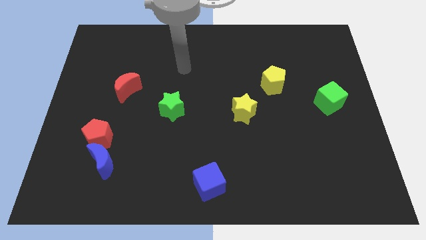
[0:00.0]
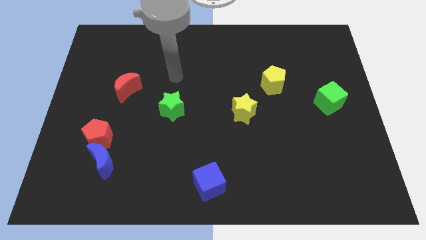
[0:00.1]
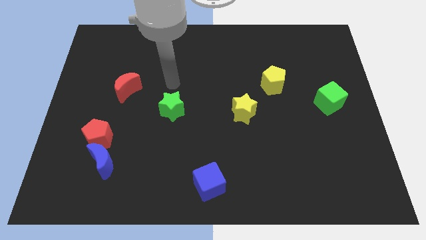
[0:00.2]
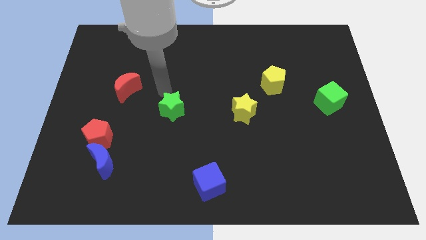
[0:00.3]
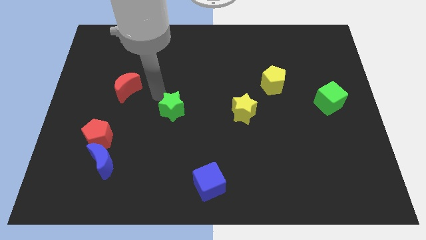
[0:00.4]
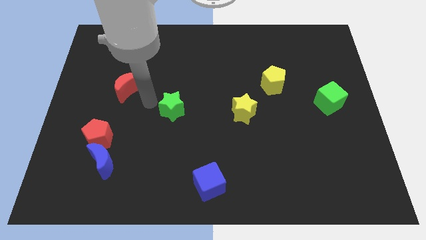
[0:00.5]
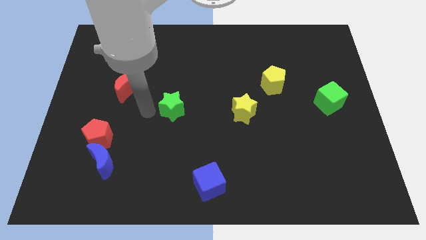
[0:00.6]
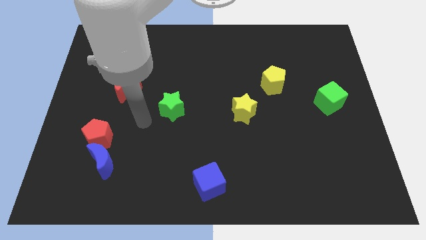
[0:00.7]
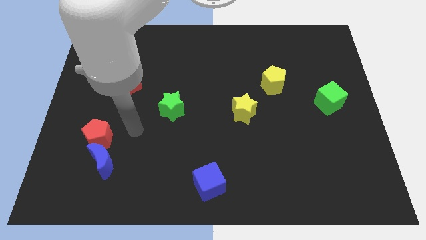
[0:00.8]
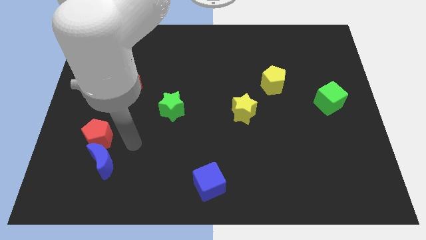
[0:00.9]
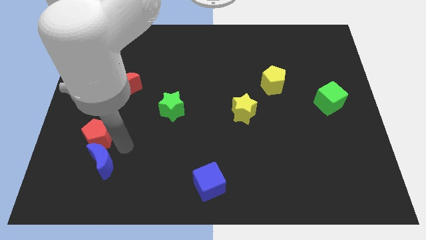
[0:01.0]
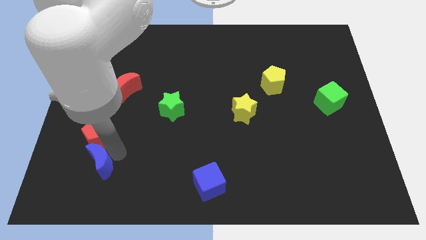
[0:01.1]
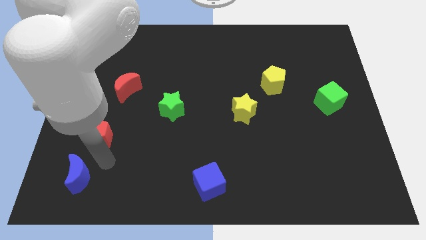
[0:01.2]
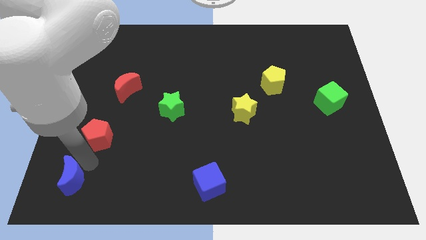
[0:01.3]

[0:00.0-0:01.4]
move the red pentagon away from the blue moon

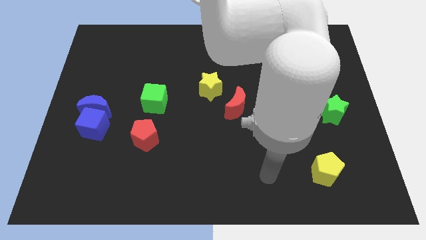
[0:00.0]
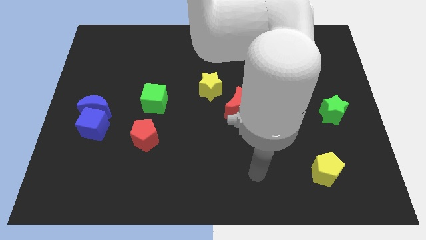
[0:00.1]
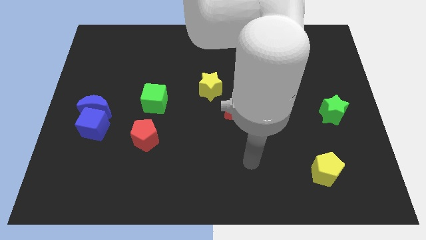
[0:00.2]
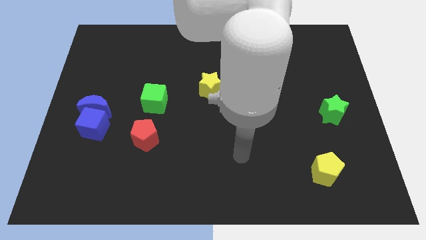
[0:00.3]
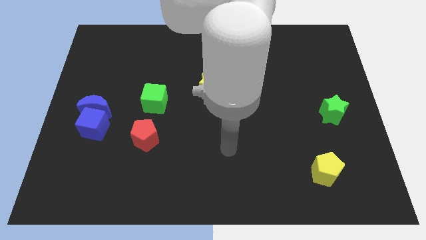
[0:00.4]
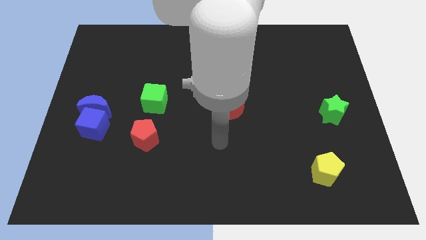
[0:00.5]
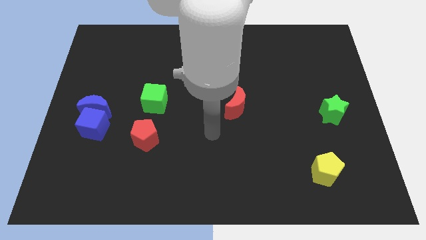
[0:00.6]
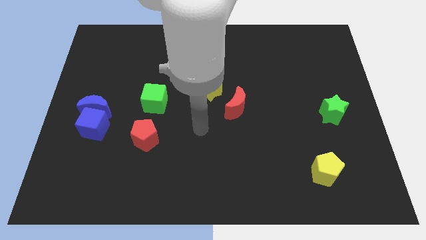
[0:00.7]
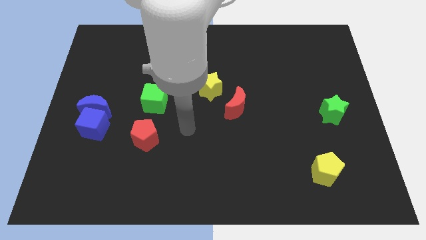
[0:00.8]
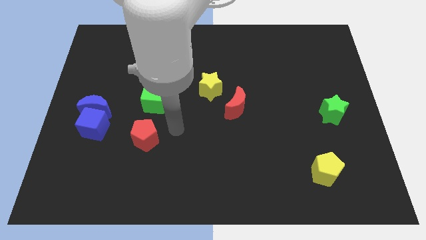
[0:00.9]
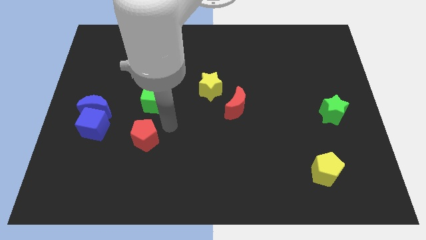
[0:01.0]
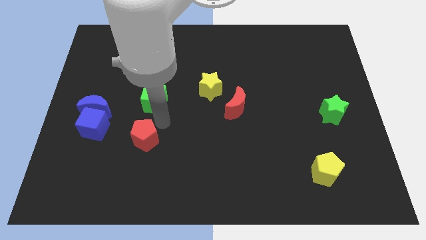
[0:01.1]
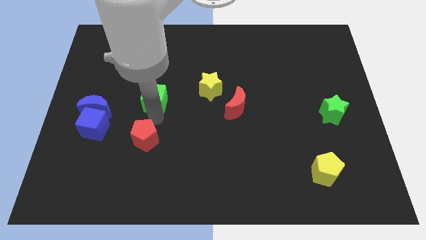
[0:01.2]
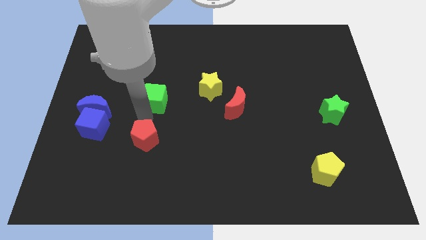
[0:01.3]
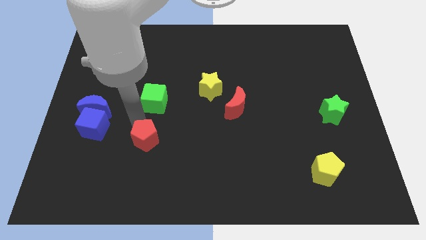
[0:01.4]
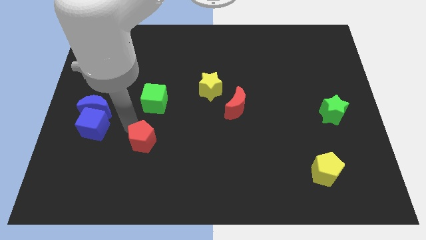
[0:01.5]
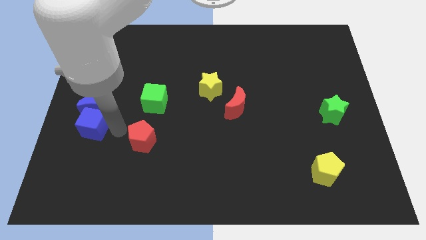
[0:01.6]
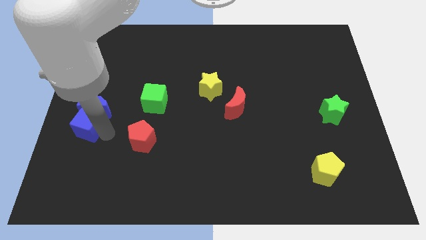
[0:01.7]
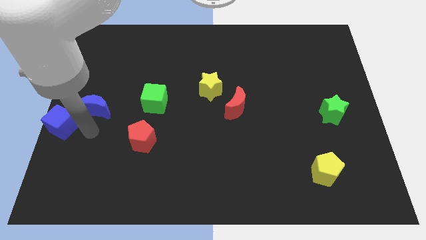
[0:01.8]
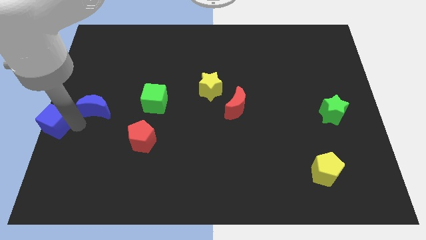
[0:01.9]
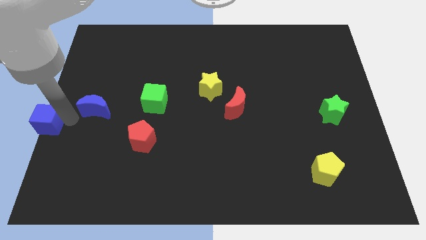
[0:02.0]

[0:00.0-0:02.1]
move the blue moon away from the blue cube

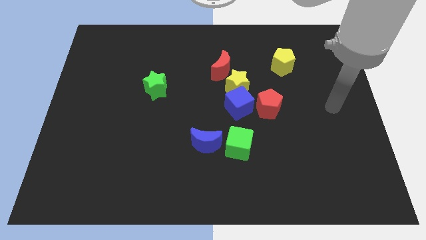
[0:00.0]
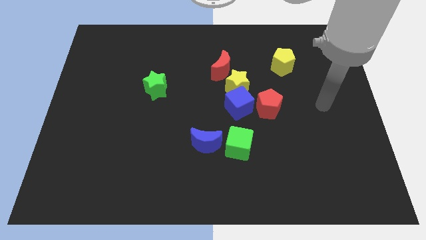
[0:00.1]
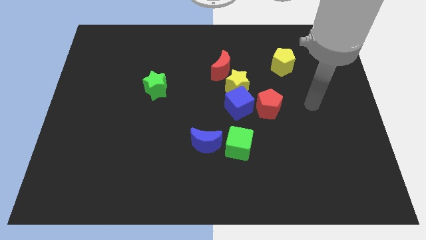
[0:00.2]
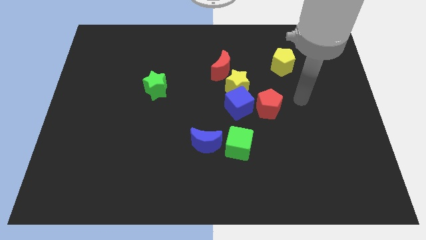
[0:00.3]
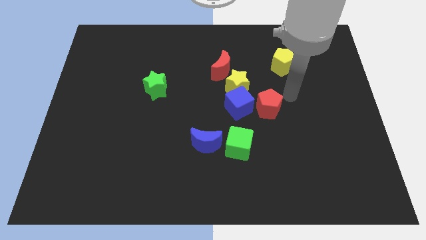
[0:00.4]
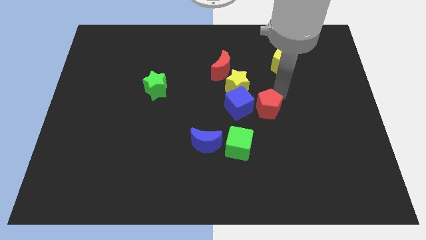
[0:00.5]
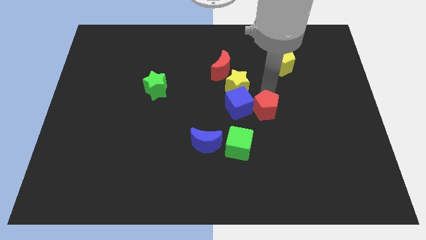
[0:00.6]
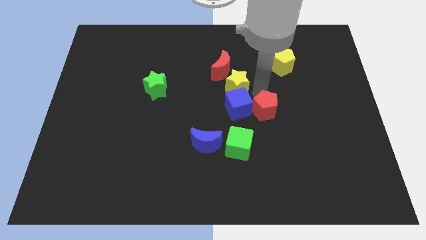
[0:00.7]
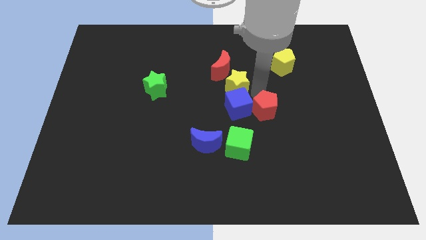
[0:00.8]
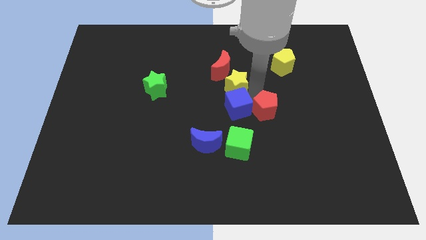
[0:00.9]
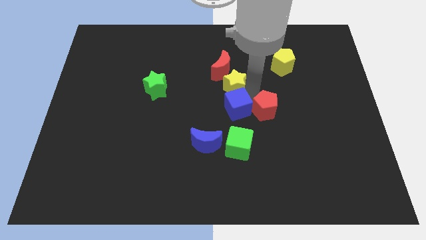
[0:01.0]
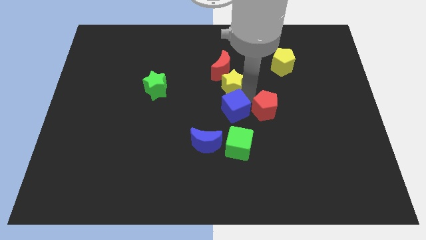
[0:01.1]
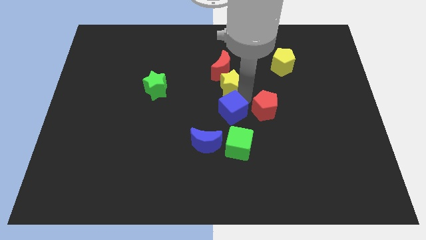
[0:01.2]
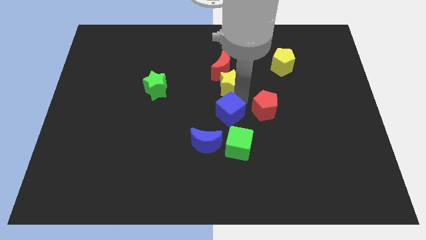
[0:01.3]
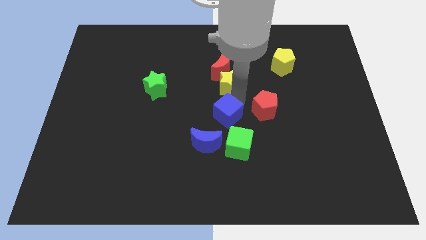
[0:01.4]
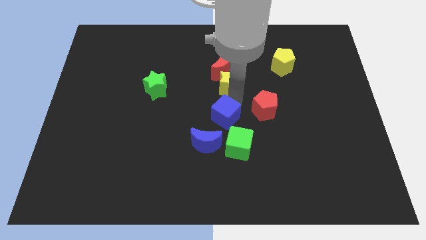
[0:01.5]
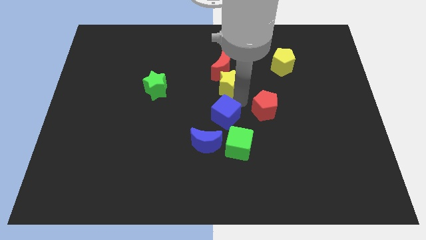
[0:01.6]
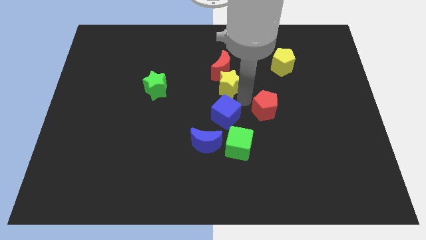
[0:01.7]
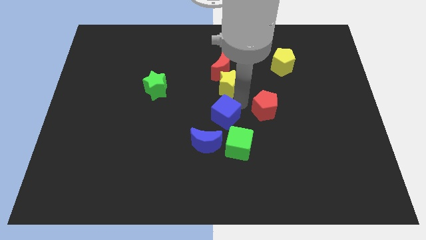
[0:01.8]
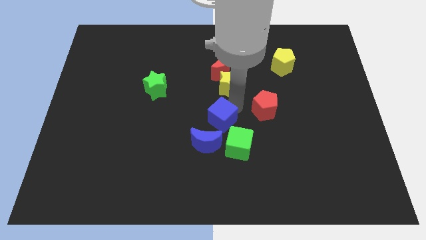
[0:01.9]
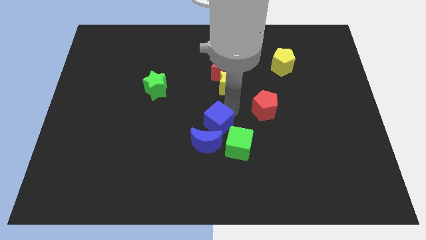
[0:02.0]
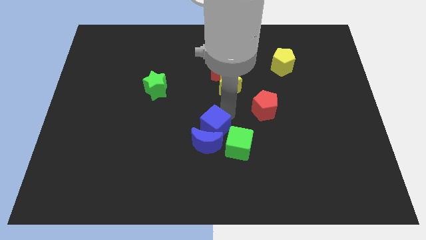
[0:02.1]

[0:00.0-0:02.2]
separate the blue cube from the yellow star and red pentagon

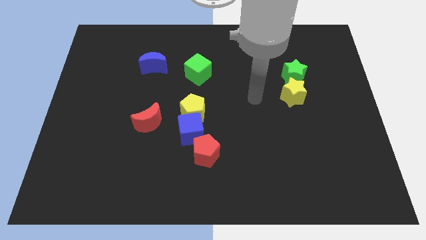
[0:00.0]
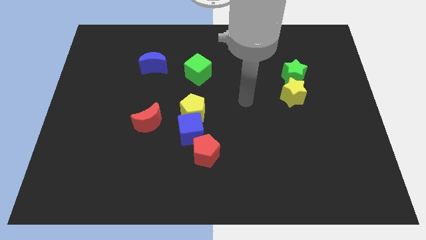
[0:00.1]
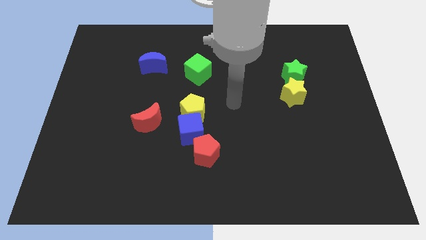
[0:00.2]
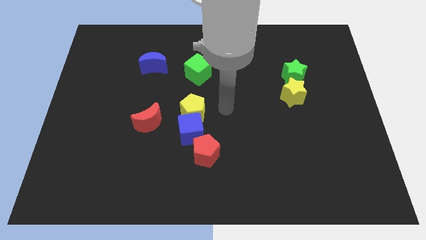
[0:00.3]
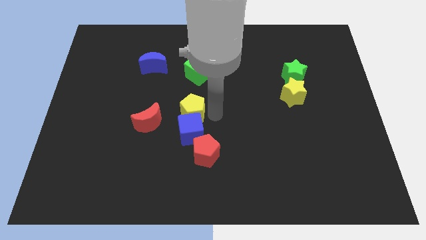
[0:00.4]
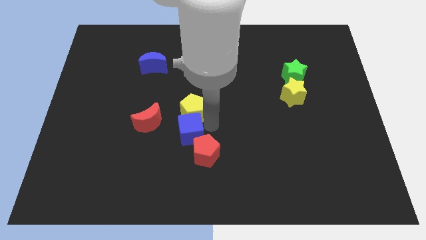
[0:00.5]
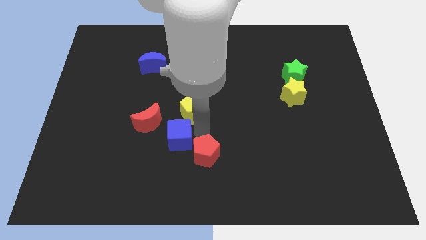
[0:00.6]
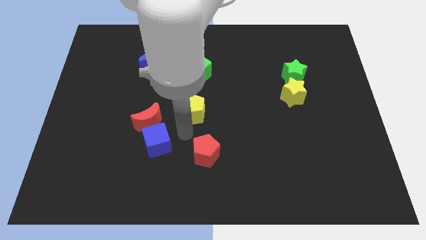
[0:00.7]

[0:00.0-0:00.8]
move the yellow pentagon away from the blue cube

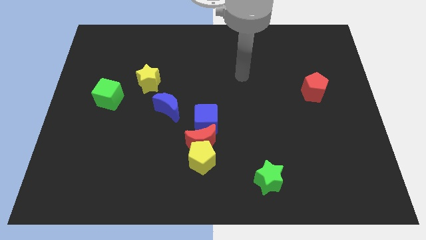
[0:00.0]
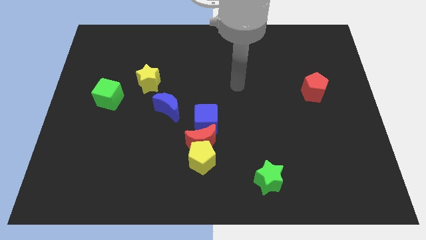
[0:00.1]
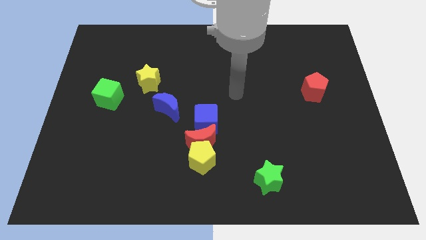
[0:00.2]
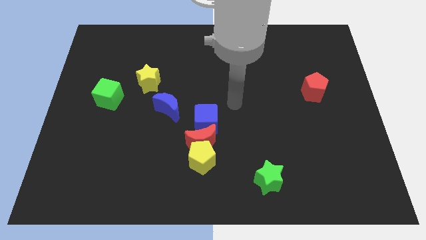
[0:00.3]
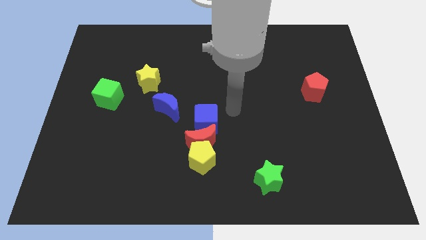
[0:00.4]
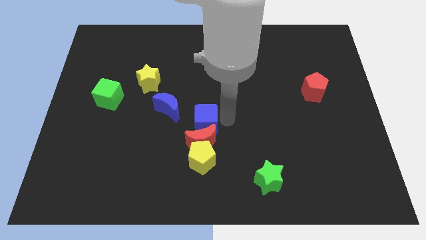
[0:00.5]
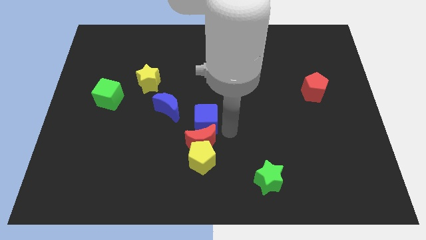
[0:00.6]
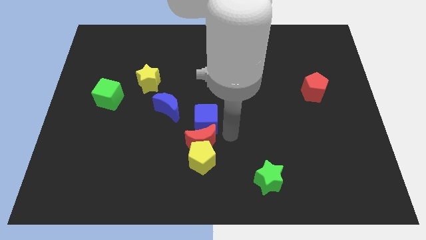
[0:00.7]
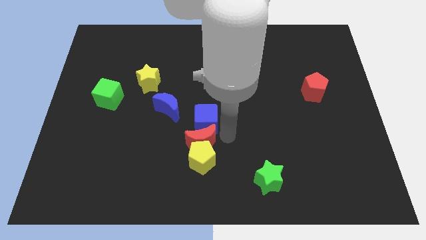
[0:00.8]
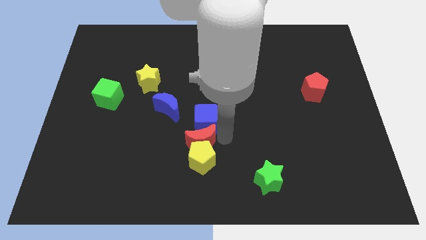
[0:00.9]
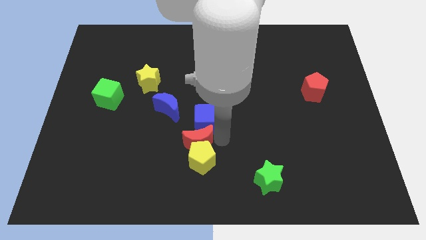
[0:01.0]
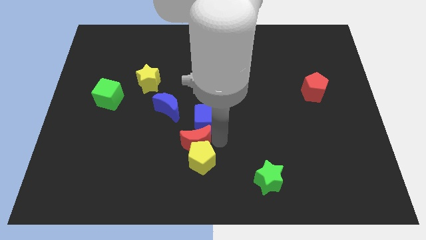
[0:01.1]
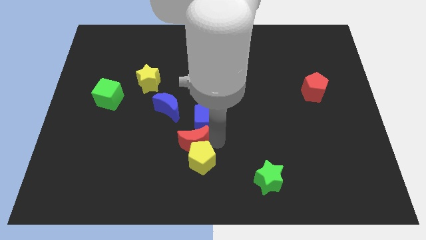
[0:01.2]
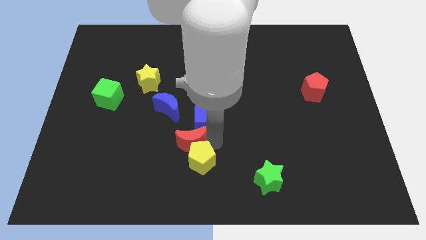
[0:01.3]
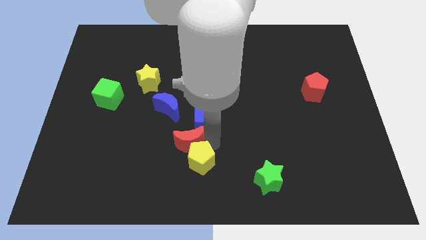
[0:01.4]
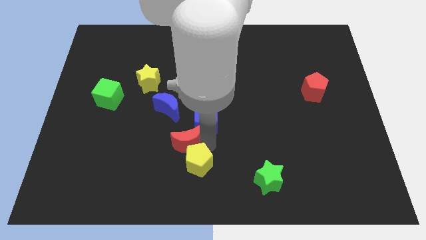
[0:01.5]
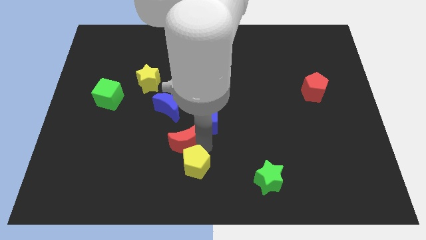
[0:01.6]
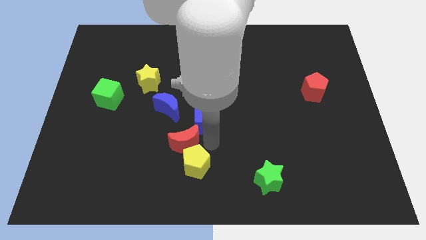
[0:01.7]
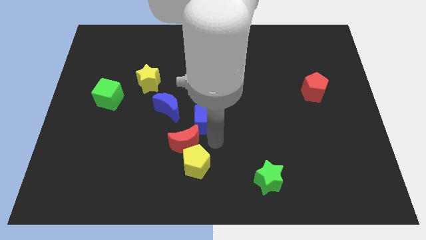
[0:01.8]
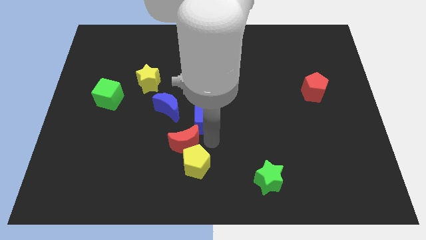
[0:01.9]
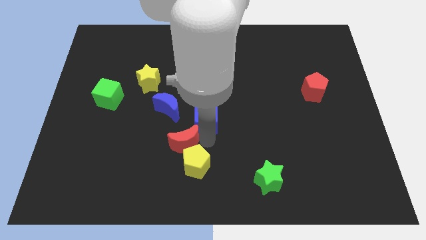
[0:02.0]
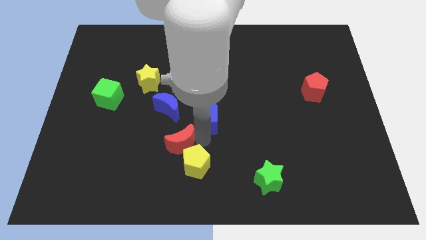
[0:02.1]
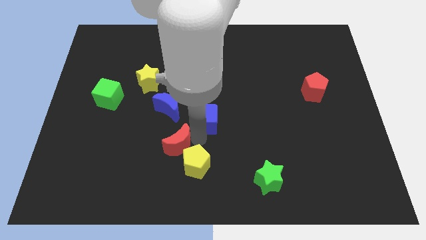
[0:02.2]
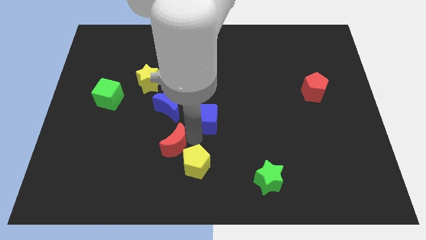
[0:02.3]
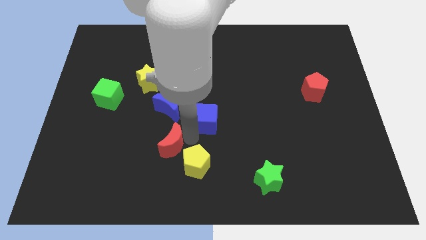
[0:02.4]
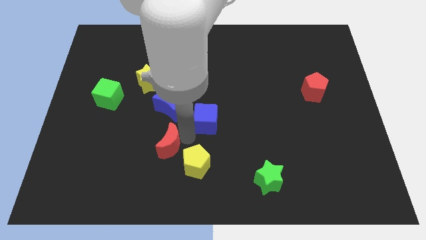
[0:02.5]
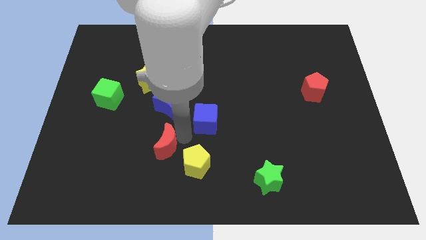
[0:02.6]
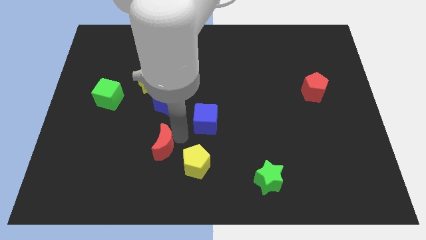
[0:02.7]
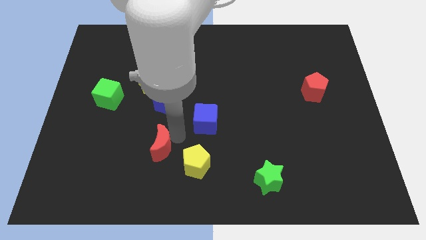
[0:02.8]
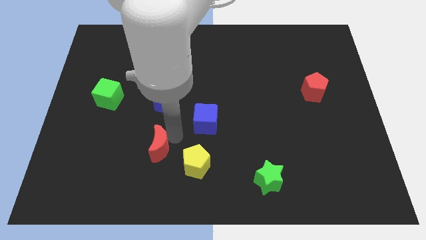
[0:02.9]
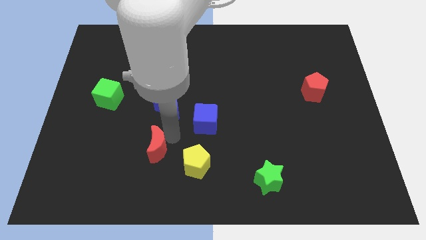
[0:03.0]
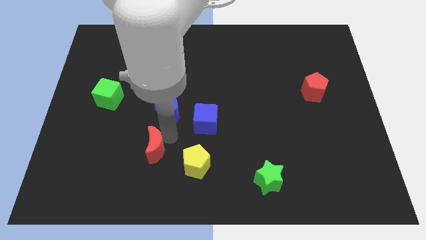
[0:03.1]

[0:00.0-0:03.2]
move the red moon away from the yellow pentagon and blue cube
